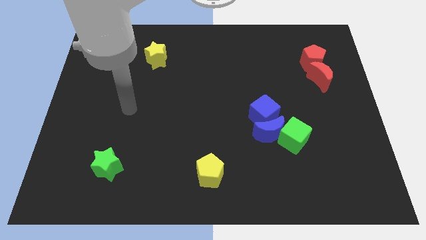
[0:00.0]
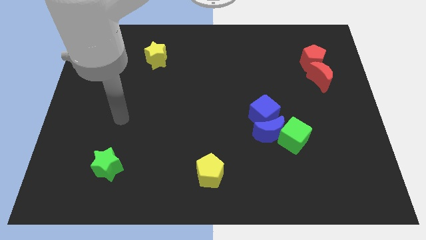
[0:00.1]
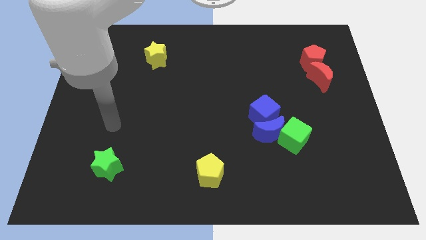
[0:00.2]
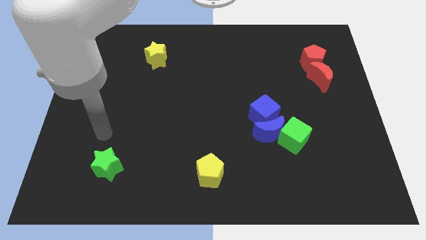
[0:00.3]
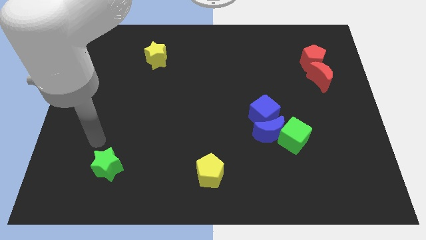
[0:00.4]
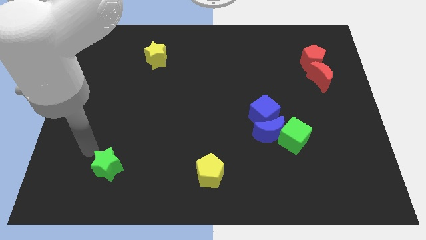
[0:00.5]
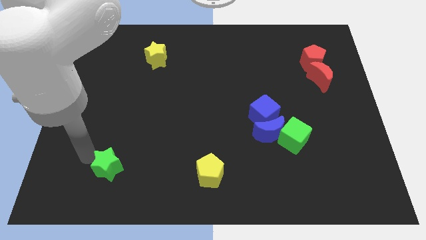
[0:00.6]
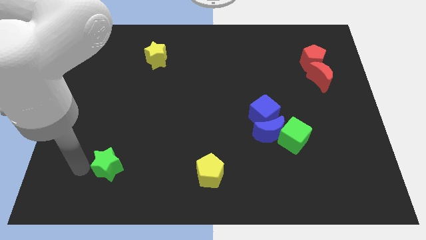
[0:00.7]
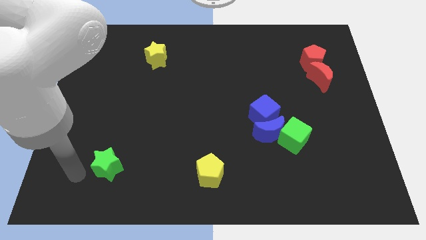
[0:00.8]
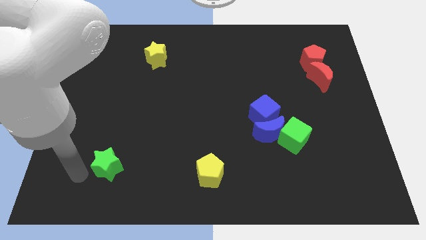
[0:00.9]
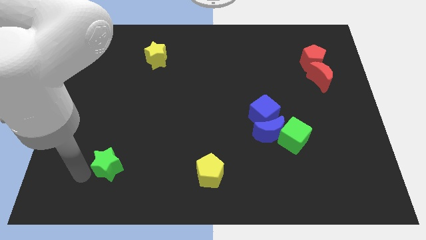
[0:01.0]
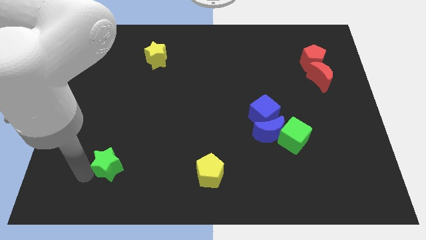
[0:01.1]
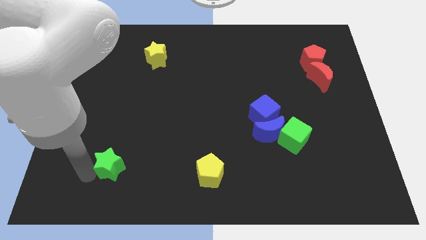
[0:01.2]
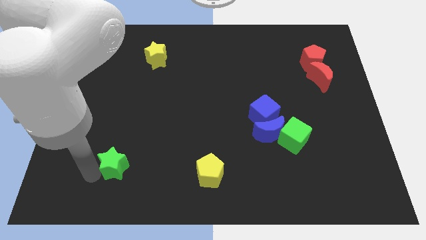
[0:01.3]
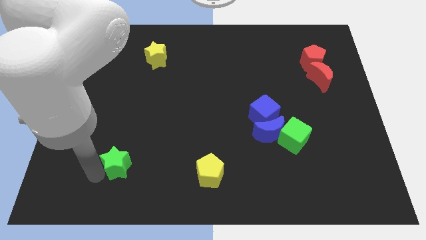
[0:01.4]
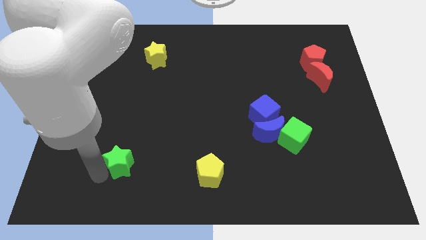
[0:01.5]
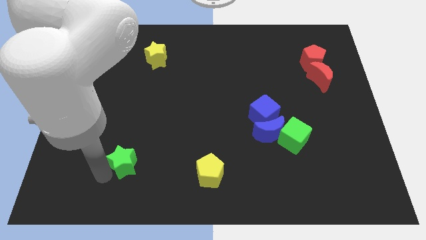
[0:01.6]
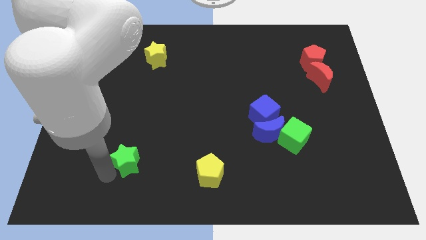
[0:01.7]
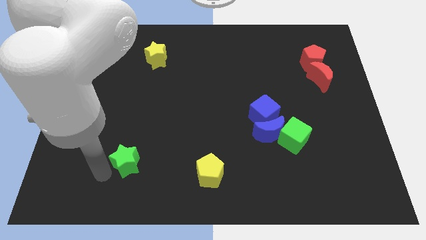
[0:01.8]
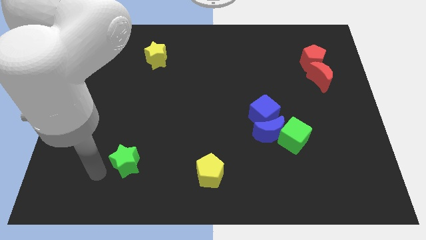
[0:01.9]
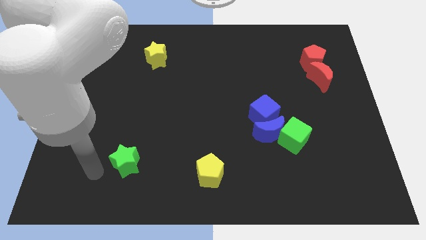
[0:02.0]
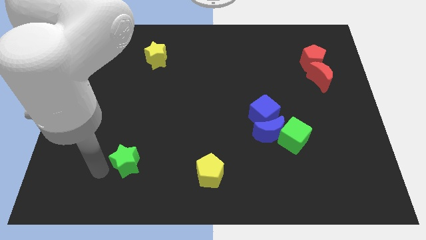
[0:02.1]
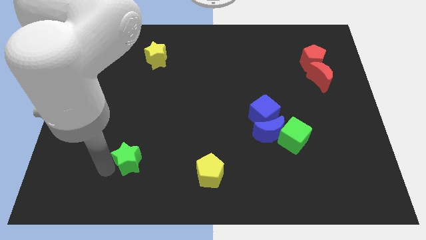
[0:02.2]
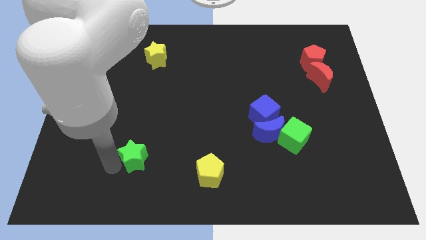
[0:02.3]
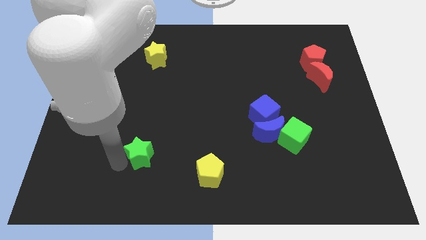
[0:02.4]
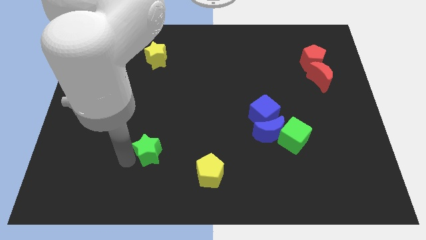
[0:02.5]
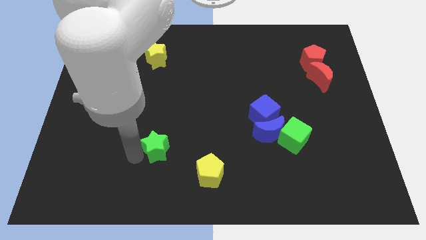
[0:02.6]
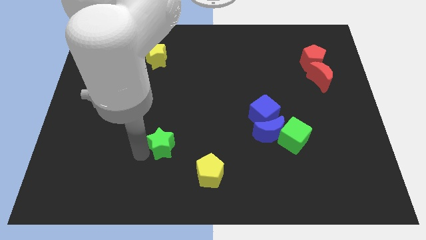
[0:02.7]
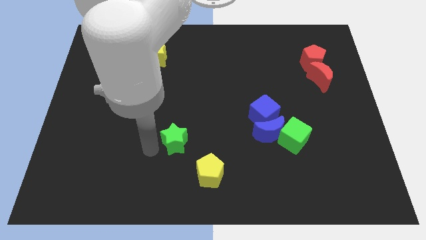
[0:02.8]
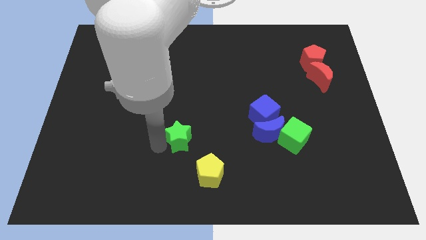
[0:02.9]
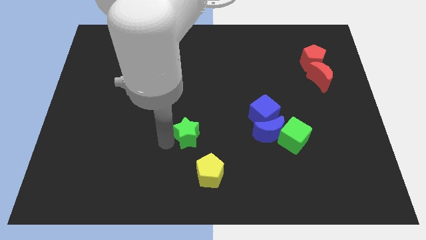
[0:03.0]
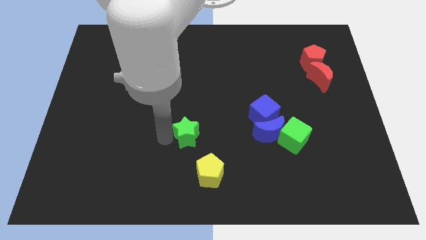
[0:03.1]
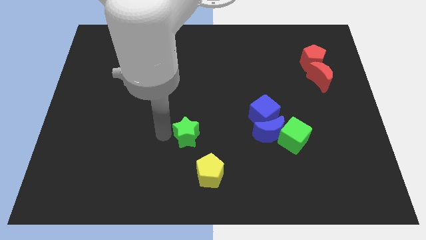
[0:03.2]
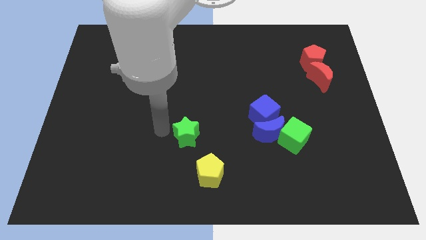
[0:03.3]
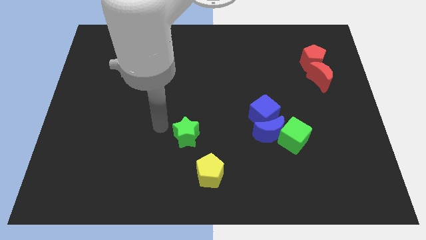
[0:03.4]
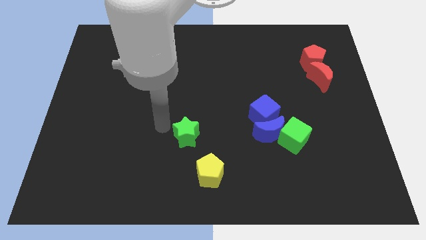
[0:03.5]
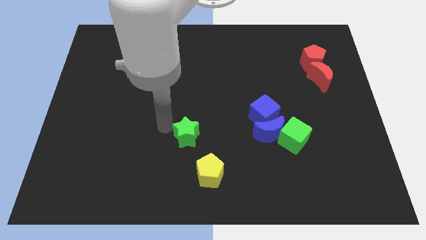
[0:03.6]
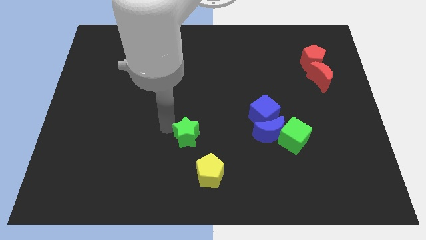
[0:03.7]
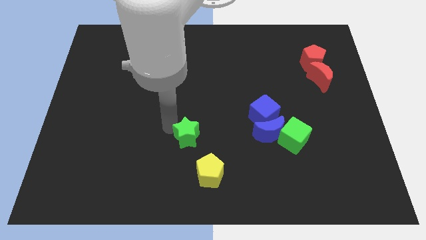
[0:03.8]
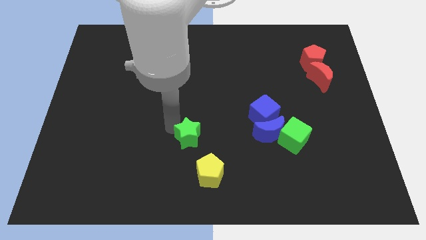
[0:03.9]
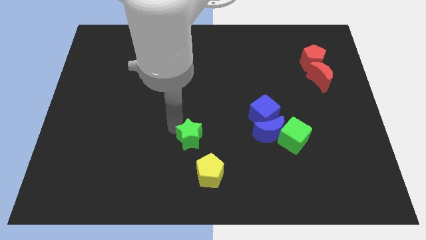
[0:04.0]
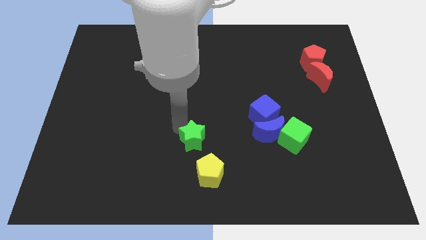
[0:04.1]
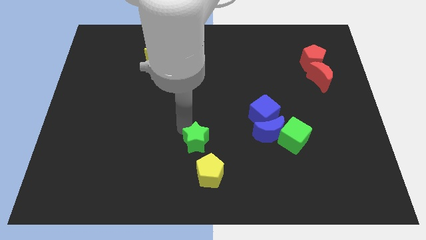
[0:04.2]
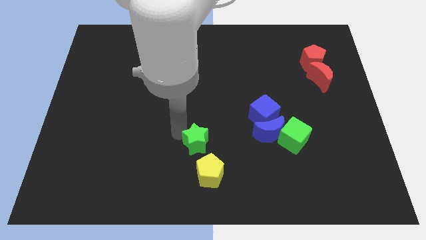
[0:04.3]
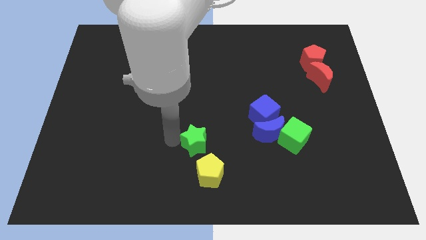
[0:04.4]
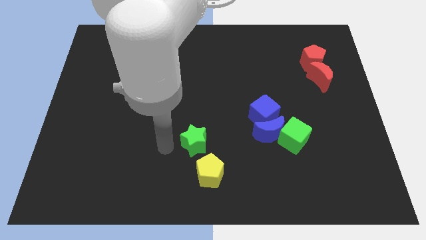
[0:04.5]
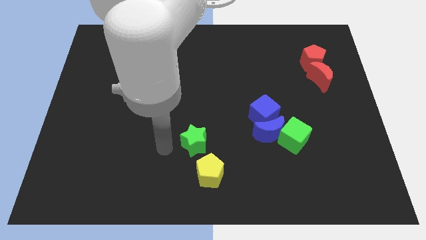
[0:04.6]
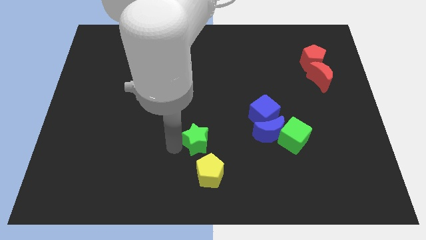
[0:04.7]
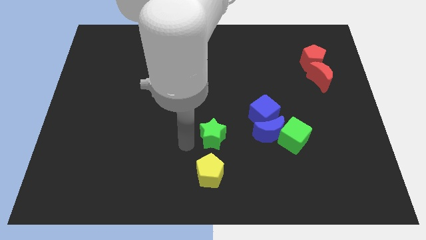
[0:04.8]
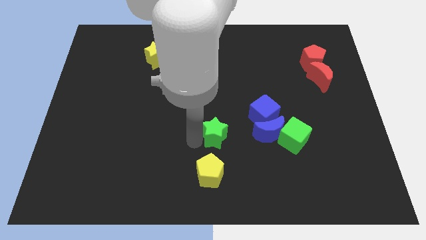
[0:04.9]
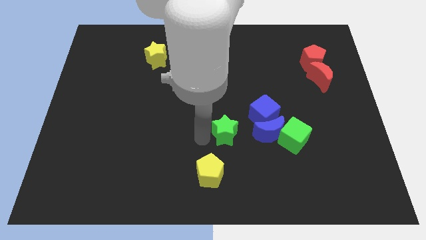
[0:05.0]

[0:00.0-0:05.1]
move the green star to the bottom left side of the blue cube

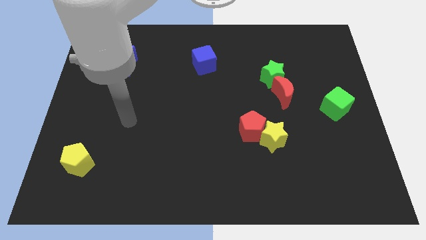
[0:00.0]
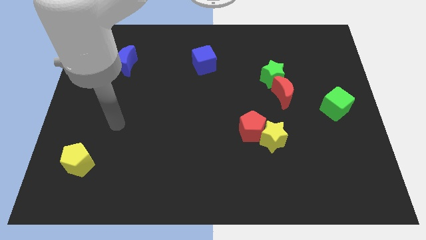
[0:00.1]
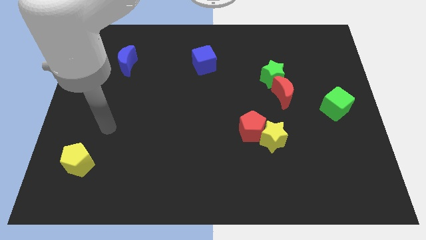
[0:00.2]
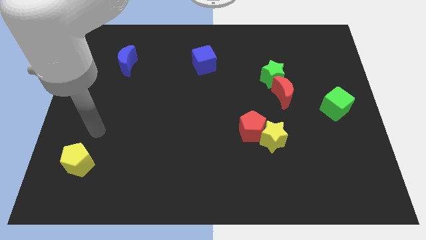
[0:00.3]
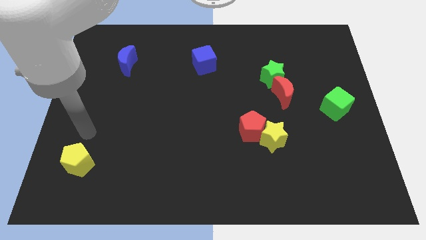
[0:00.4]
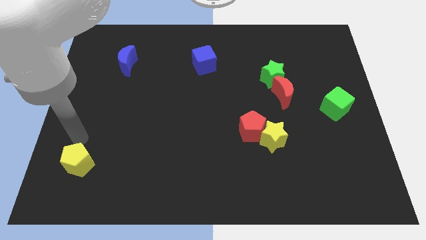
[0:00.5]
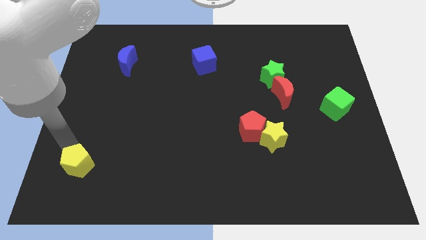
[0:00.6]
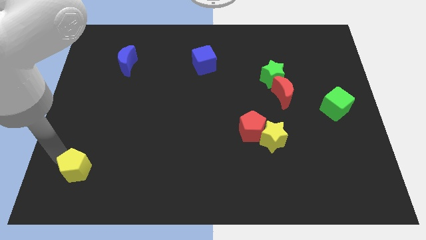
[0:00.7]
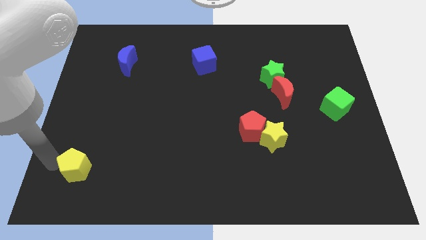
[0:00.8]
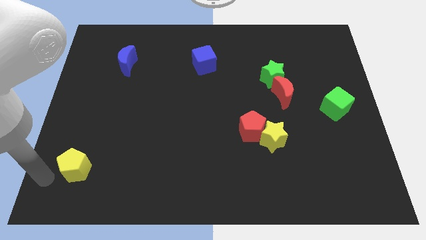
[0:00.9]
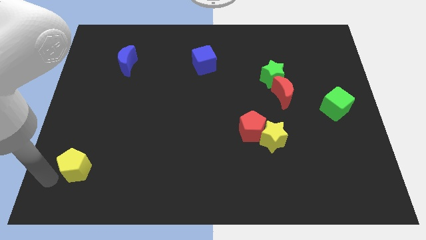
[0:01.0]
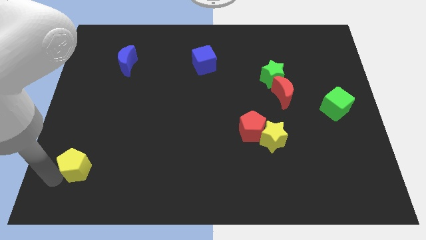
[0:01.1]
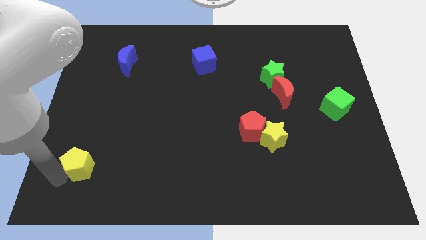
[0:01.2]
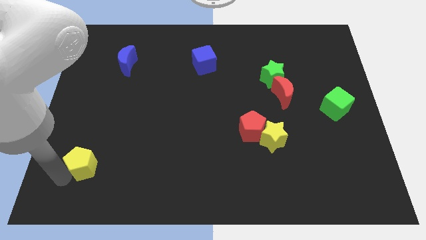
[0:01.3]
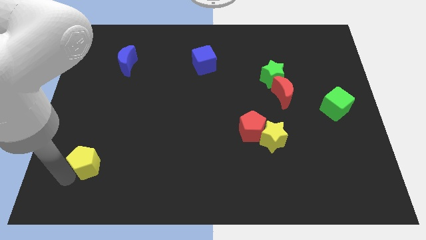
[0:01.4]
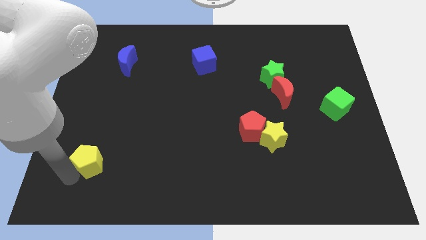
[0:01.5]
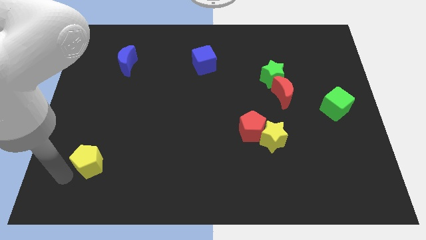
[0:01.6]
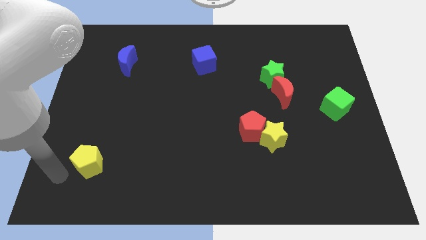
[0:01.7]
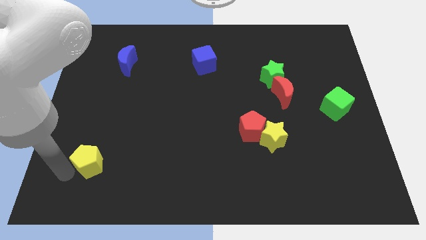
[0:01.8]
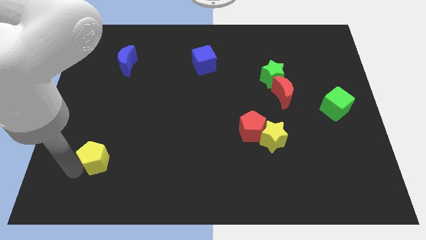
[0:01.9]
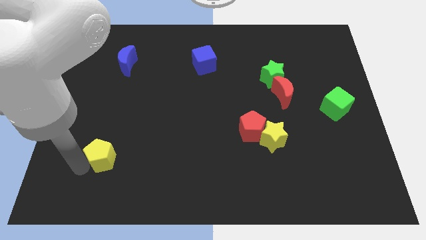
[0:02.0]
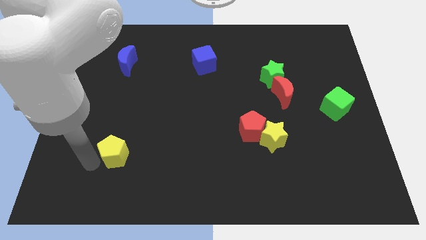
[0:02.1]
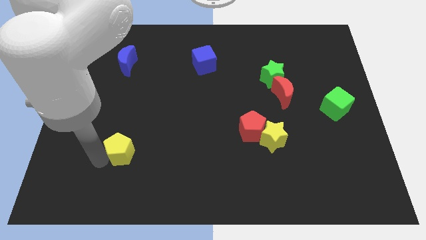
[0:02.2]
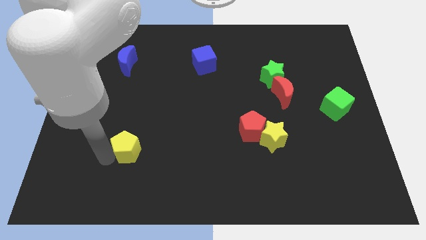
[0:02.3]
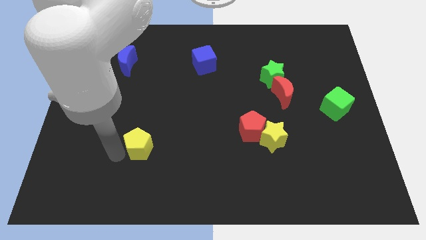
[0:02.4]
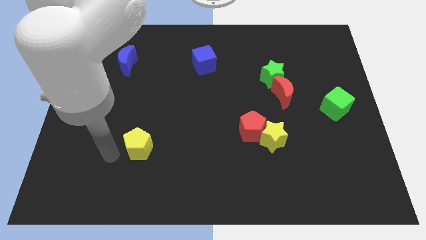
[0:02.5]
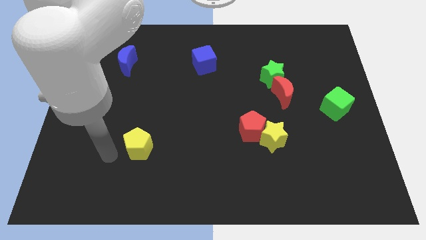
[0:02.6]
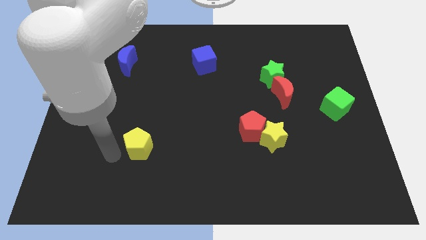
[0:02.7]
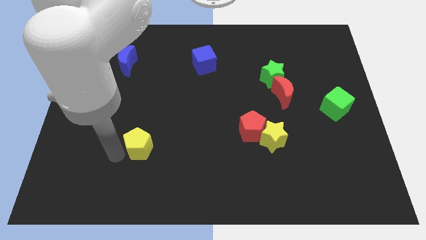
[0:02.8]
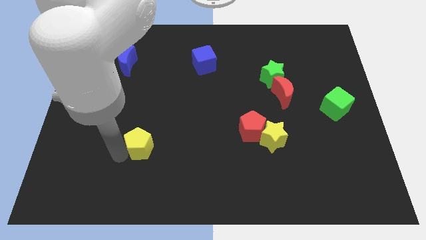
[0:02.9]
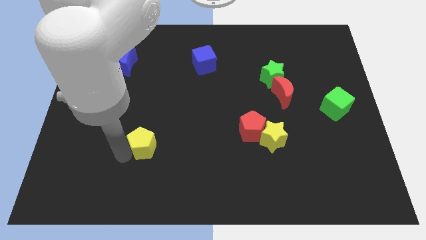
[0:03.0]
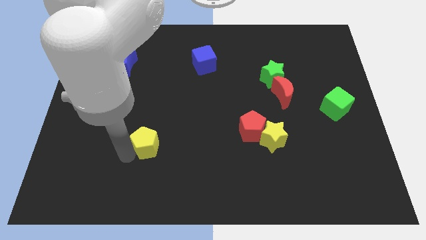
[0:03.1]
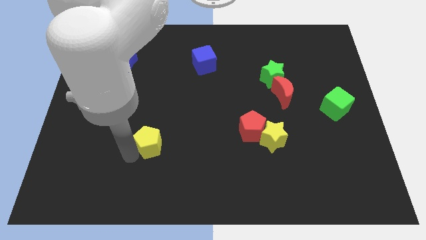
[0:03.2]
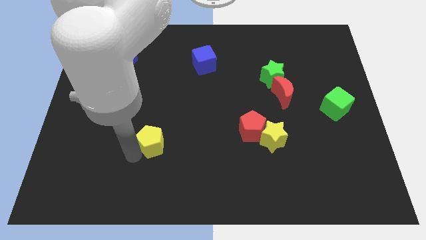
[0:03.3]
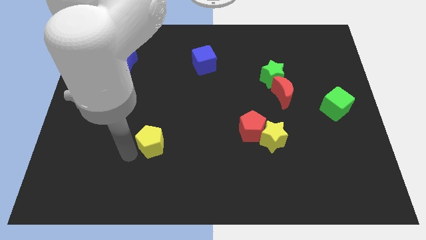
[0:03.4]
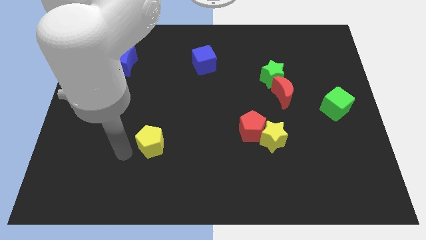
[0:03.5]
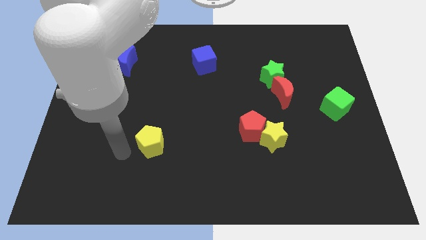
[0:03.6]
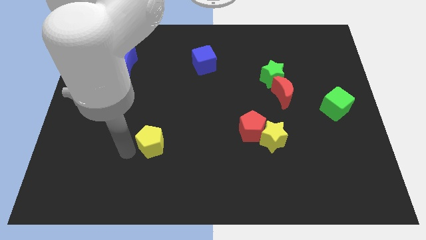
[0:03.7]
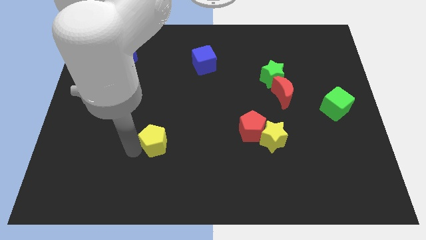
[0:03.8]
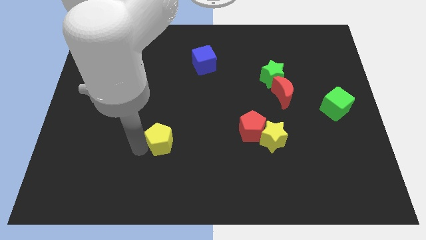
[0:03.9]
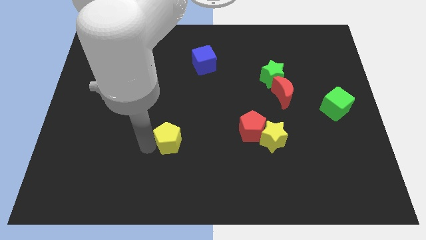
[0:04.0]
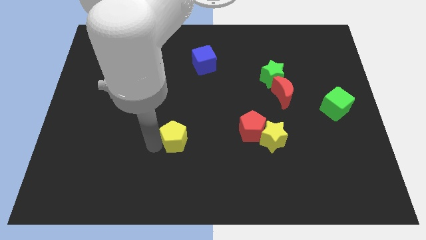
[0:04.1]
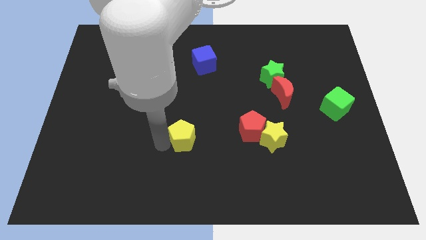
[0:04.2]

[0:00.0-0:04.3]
slide the yellow pentagon to the left of the red pentagon
